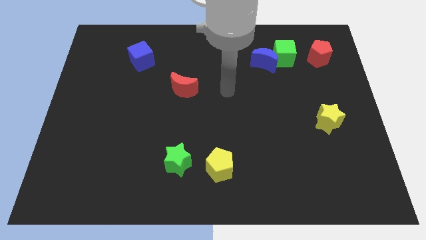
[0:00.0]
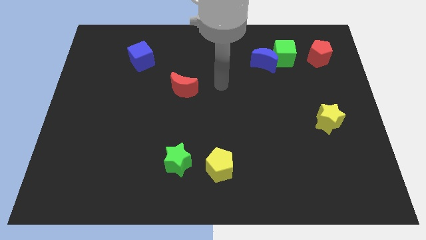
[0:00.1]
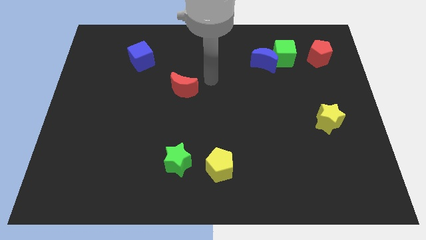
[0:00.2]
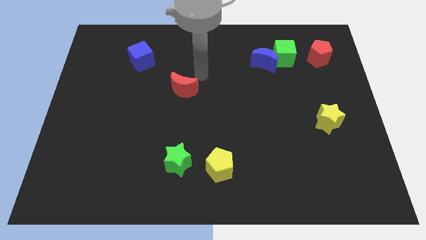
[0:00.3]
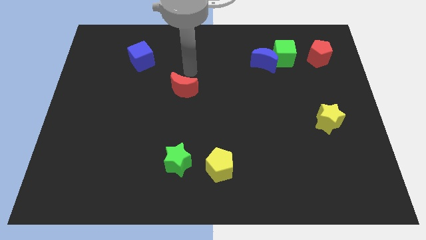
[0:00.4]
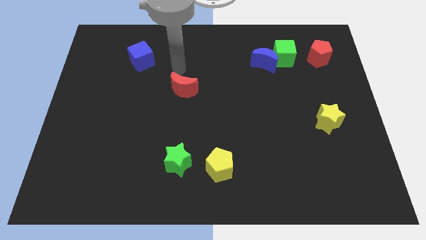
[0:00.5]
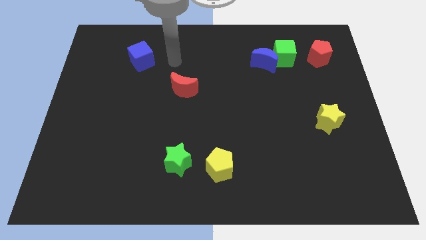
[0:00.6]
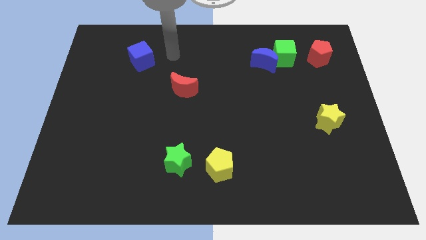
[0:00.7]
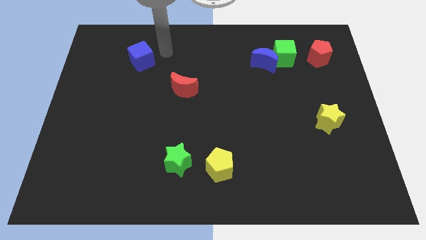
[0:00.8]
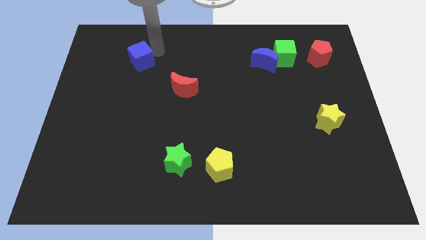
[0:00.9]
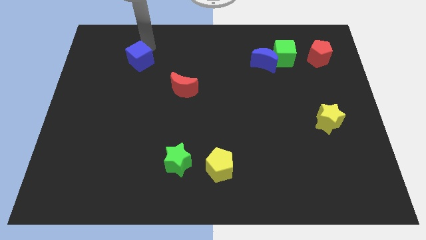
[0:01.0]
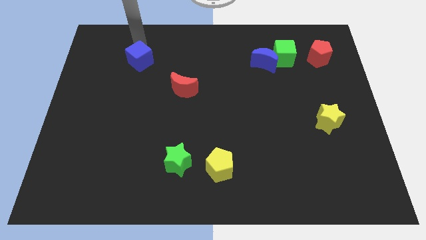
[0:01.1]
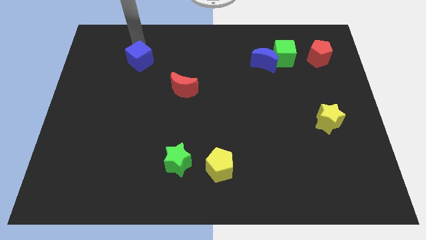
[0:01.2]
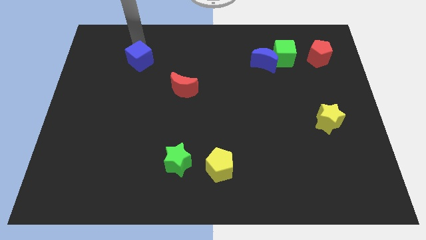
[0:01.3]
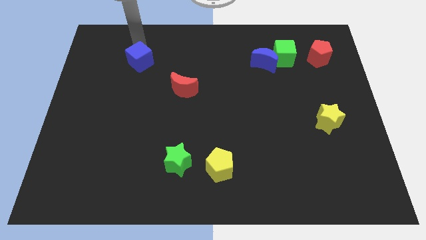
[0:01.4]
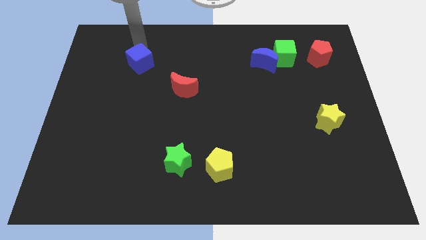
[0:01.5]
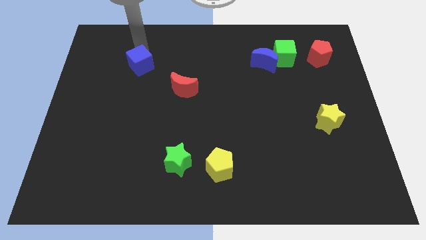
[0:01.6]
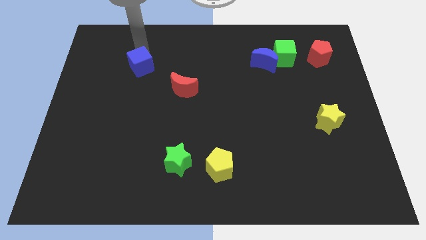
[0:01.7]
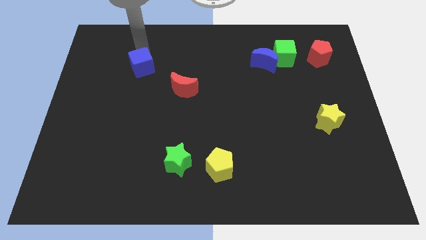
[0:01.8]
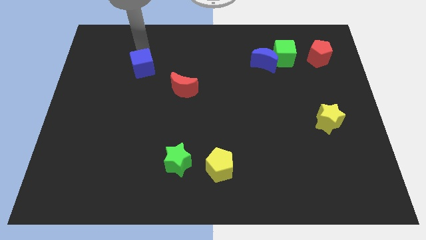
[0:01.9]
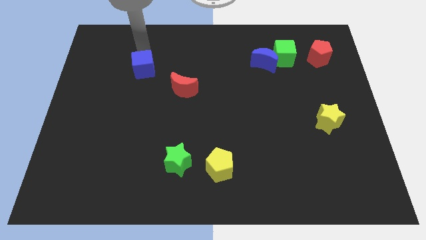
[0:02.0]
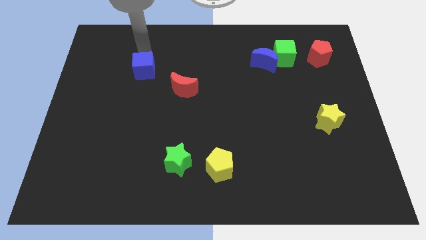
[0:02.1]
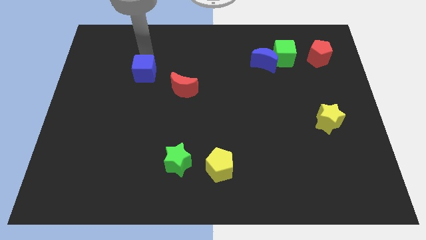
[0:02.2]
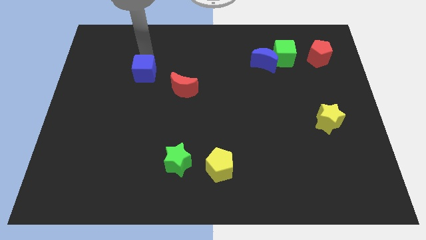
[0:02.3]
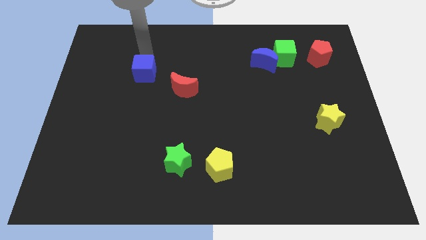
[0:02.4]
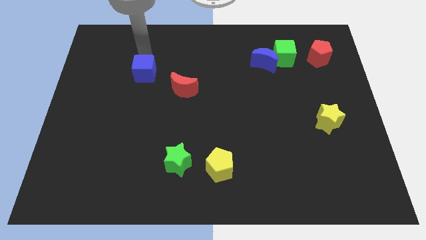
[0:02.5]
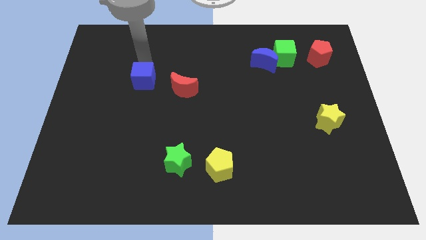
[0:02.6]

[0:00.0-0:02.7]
slightly slide the blue cube down

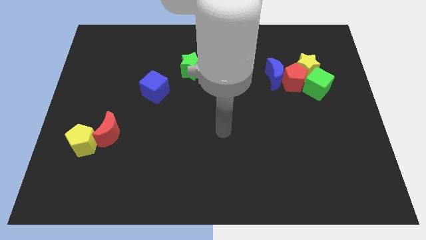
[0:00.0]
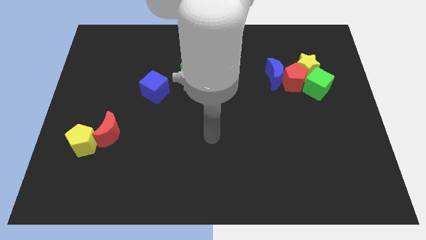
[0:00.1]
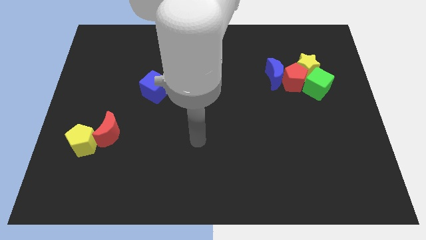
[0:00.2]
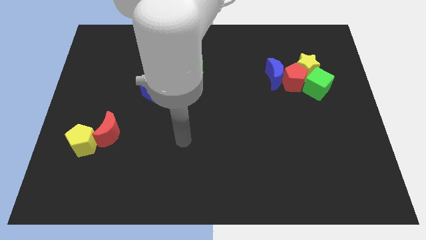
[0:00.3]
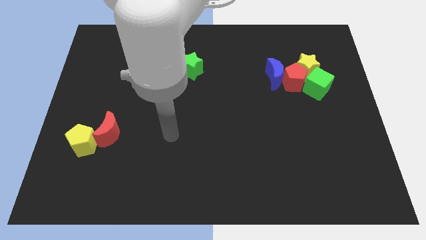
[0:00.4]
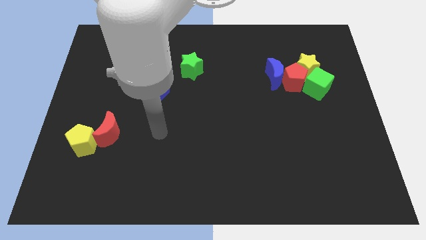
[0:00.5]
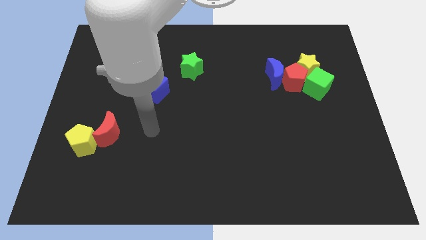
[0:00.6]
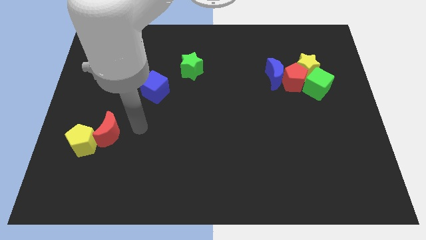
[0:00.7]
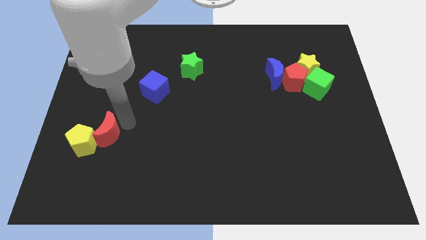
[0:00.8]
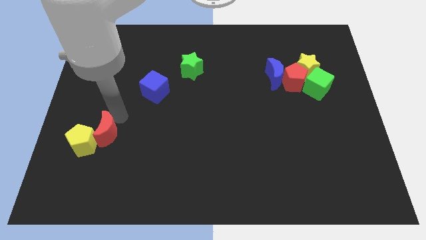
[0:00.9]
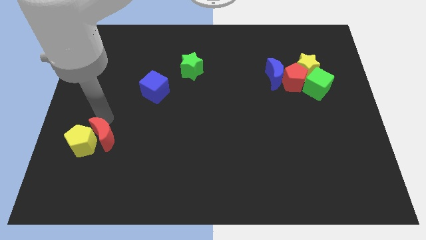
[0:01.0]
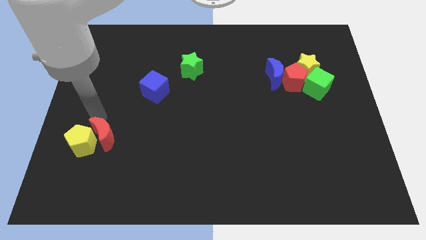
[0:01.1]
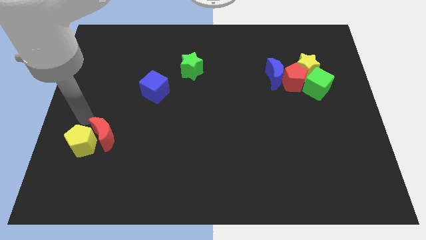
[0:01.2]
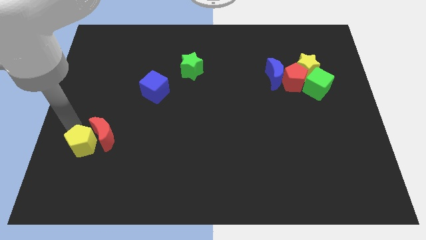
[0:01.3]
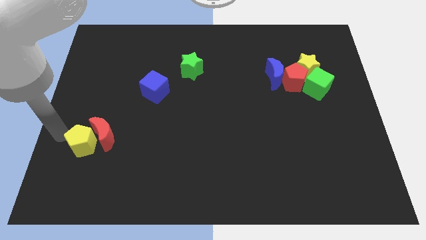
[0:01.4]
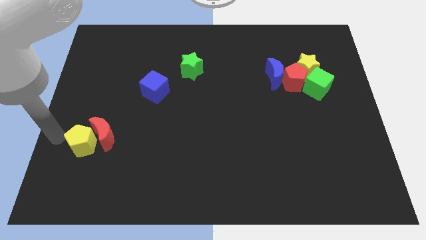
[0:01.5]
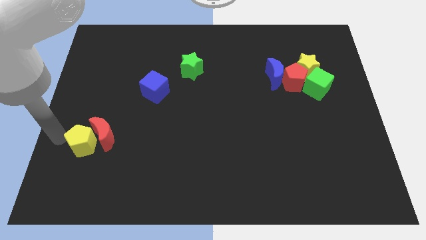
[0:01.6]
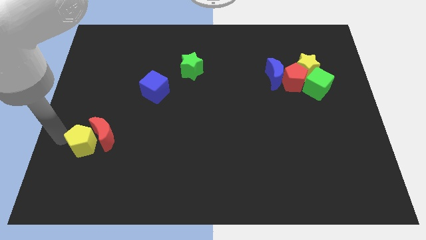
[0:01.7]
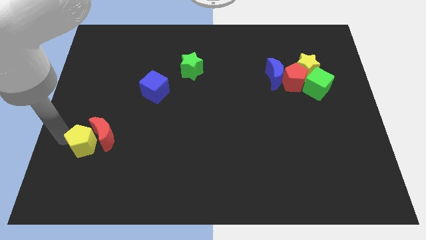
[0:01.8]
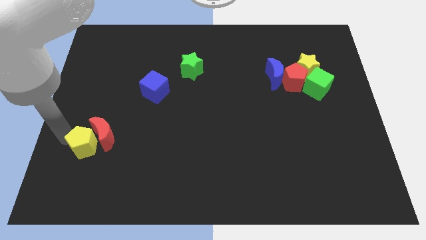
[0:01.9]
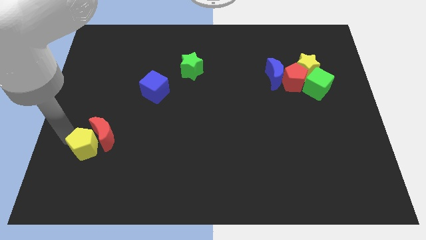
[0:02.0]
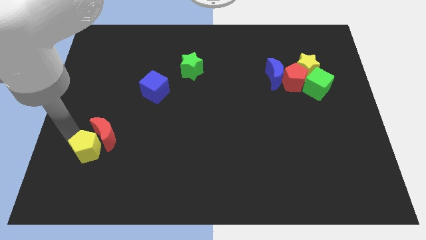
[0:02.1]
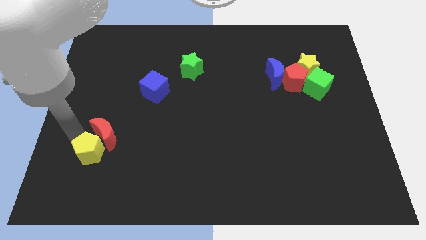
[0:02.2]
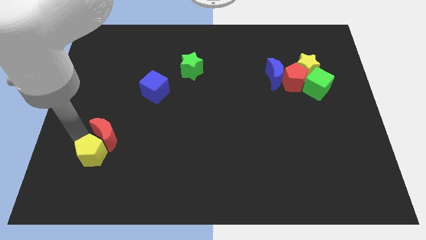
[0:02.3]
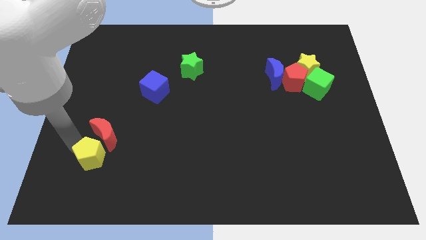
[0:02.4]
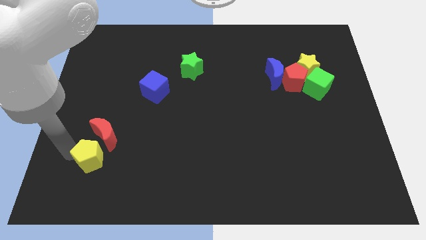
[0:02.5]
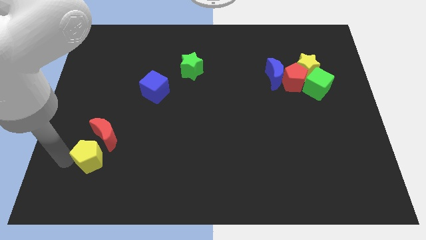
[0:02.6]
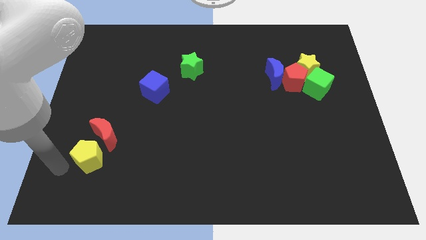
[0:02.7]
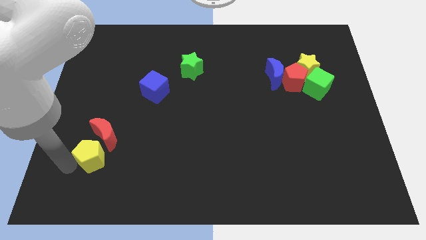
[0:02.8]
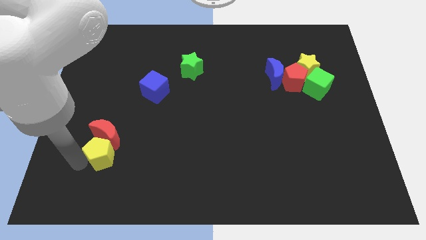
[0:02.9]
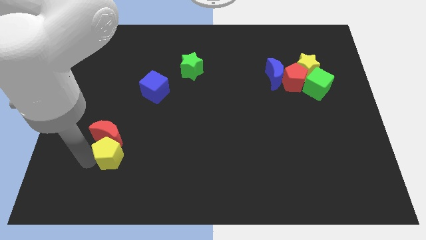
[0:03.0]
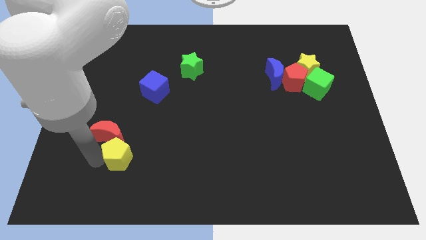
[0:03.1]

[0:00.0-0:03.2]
slide the yellow pentagon slightly right

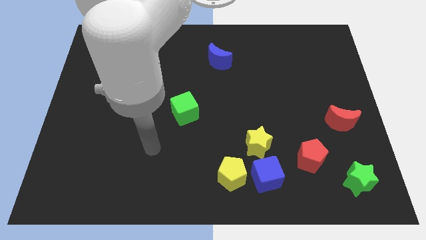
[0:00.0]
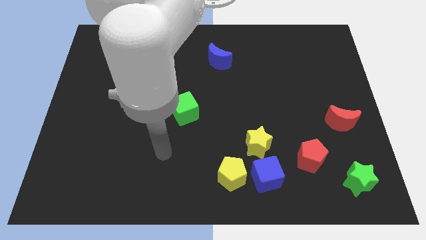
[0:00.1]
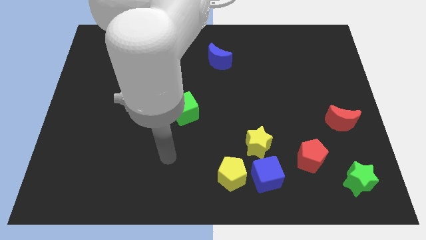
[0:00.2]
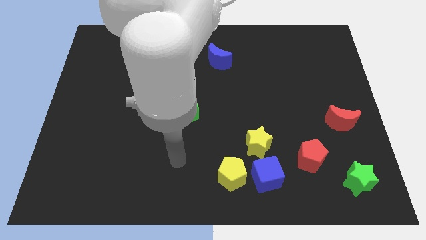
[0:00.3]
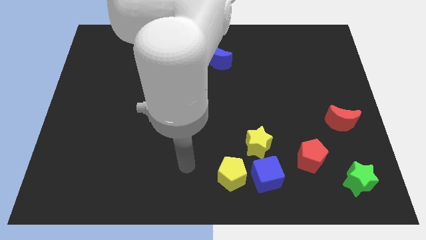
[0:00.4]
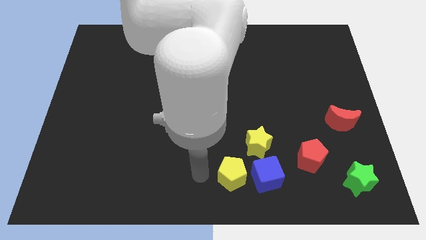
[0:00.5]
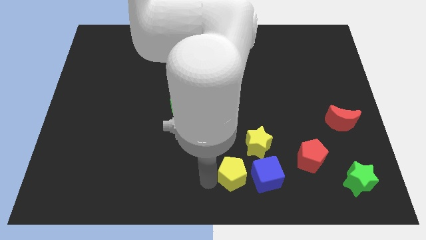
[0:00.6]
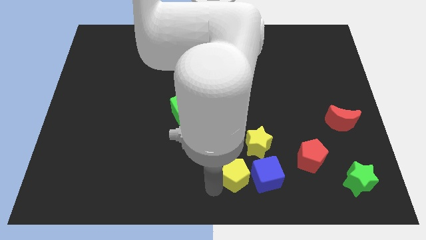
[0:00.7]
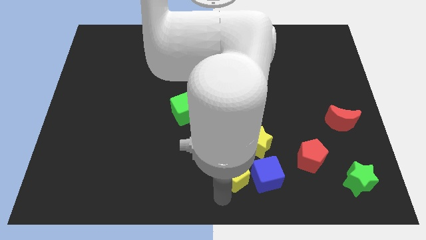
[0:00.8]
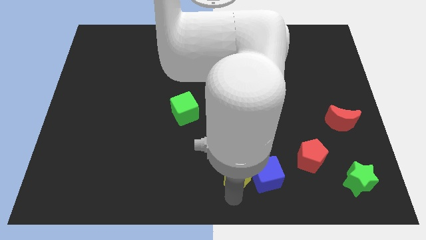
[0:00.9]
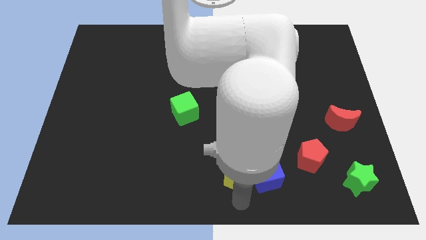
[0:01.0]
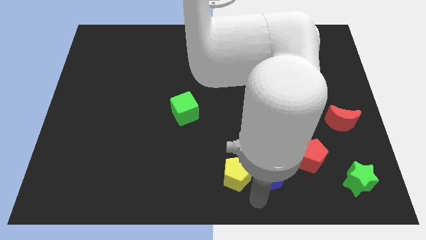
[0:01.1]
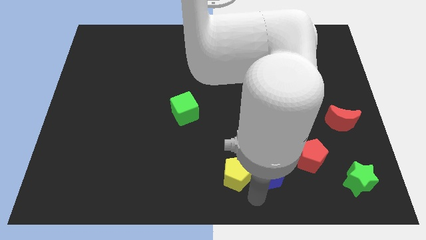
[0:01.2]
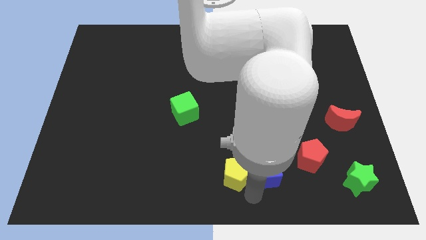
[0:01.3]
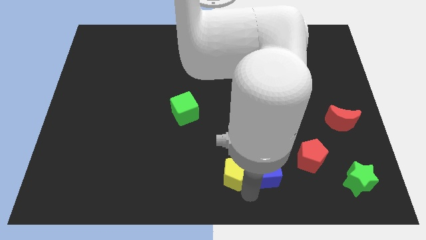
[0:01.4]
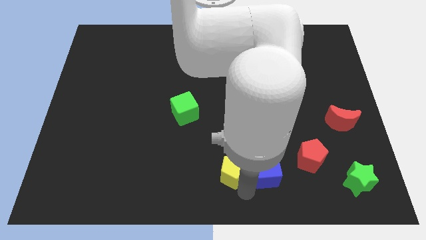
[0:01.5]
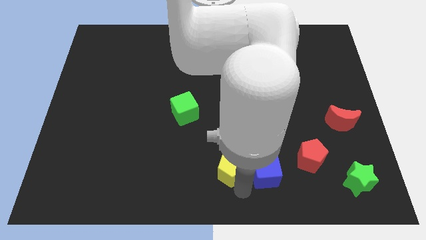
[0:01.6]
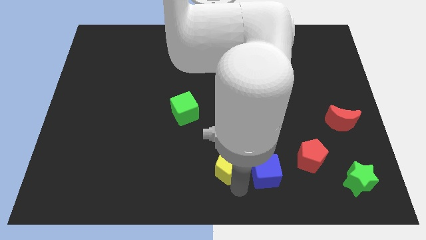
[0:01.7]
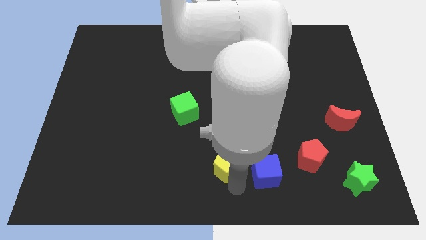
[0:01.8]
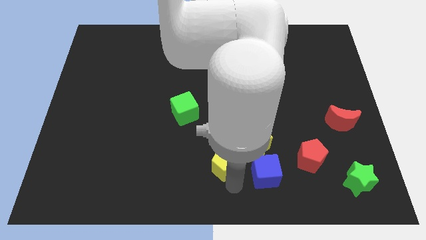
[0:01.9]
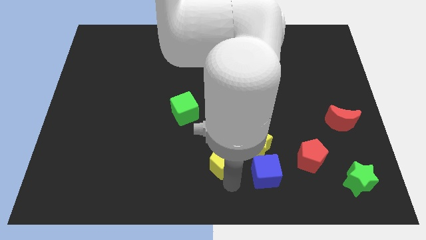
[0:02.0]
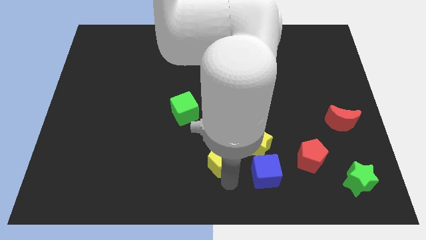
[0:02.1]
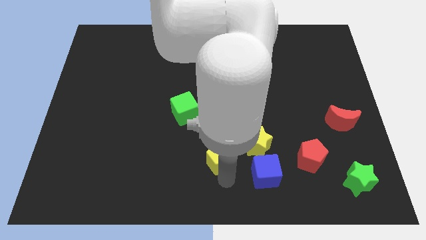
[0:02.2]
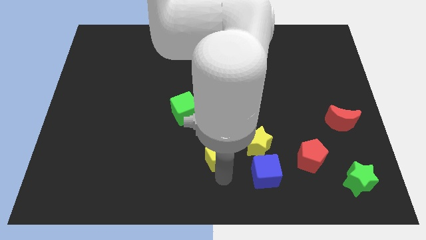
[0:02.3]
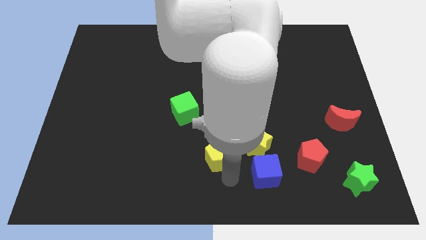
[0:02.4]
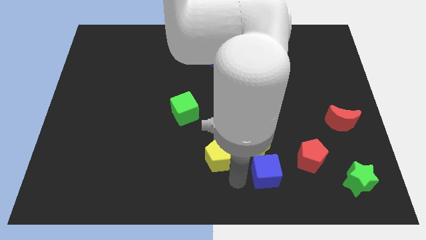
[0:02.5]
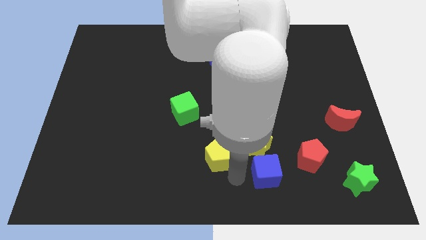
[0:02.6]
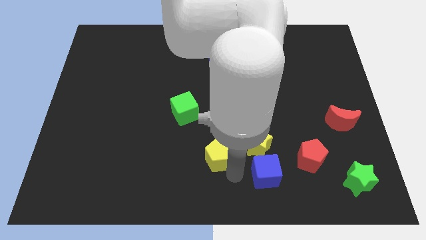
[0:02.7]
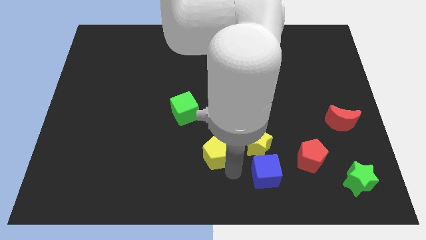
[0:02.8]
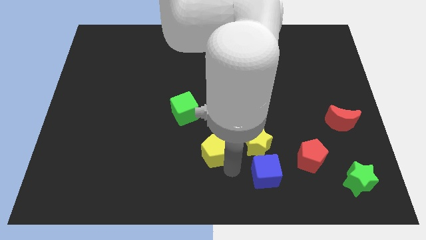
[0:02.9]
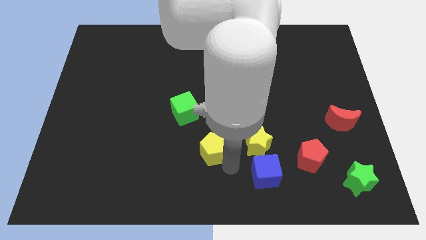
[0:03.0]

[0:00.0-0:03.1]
move the yellow pentagon a bit upwards and left diagonally
